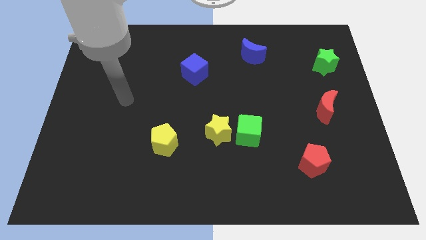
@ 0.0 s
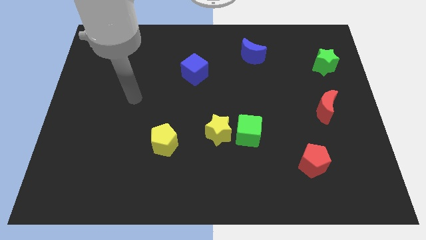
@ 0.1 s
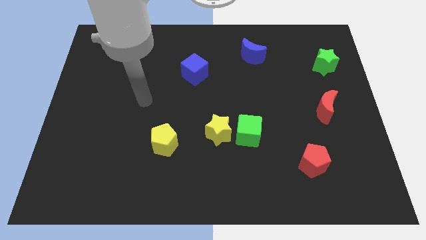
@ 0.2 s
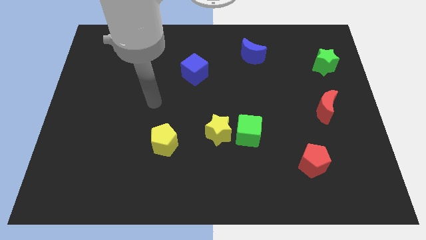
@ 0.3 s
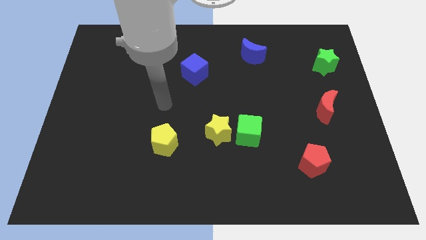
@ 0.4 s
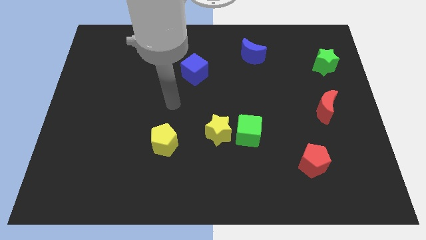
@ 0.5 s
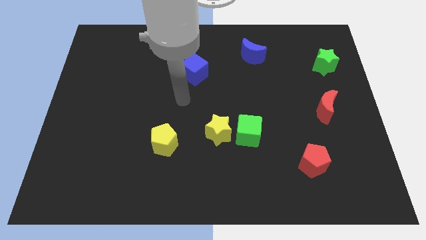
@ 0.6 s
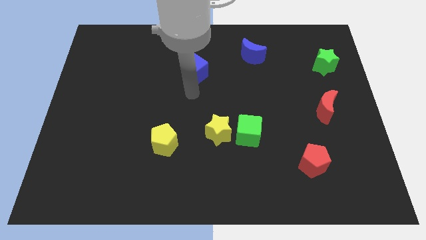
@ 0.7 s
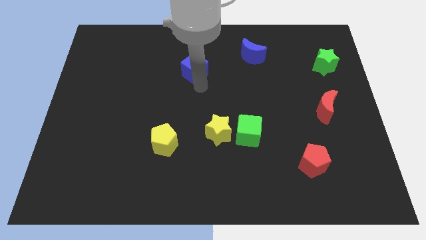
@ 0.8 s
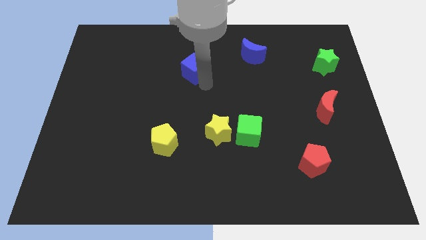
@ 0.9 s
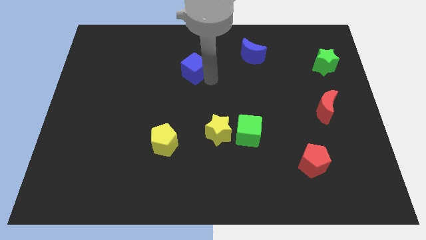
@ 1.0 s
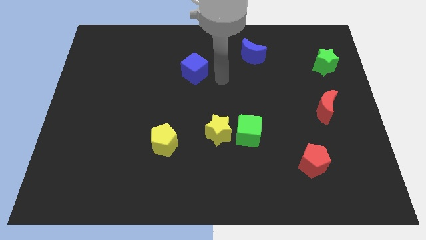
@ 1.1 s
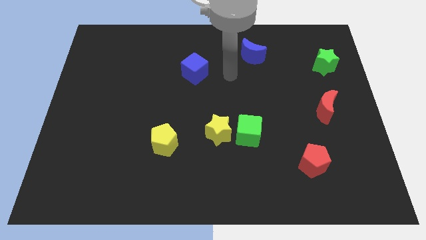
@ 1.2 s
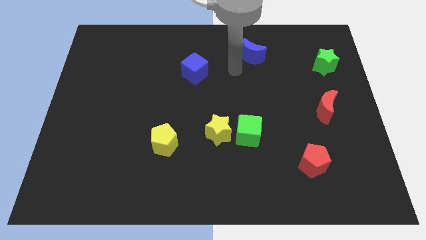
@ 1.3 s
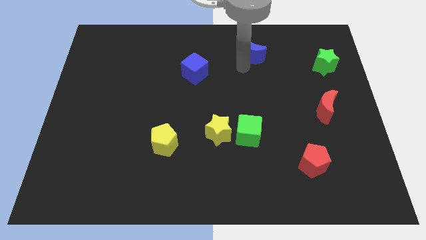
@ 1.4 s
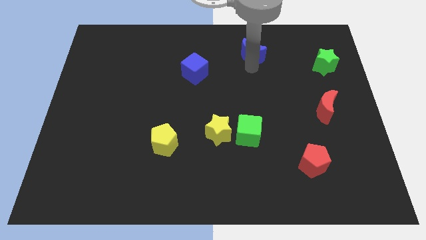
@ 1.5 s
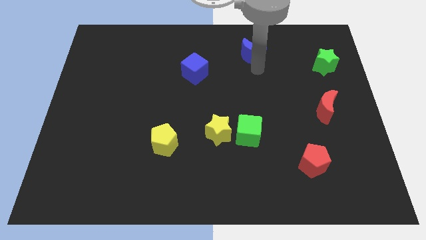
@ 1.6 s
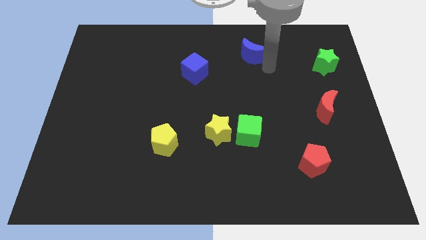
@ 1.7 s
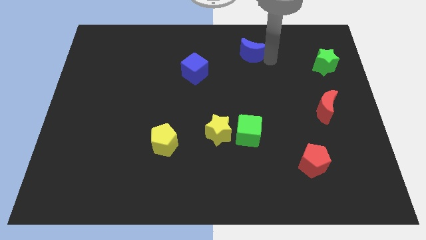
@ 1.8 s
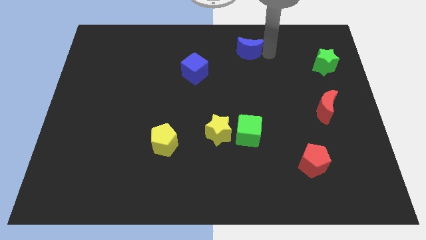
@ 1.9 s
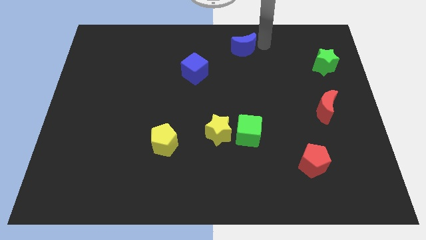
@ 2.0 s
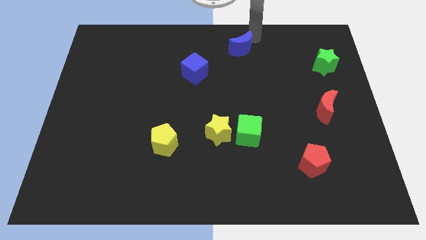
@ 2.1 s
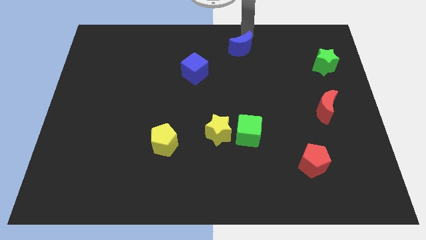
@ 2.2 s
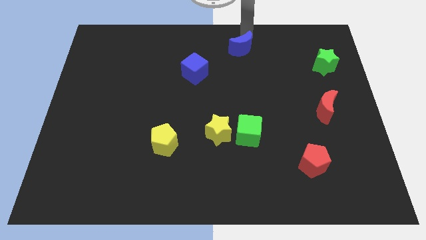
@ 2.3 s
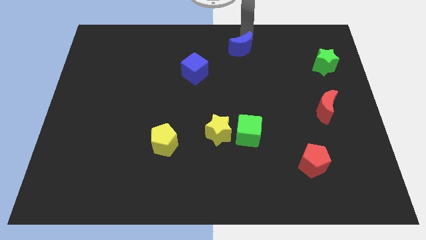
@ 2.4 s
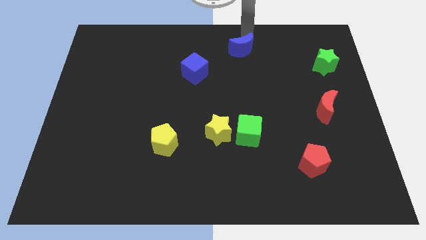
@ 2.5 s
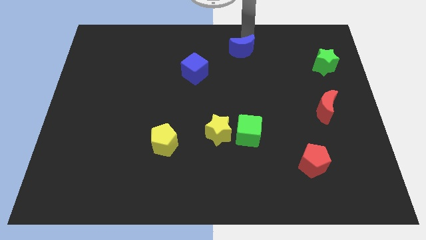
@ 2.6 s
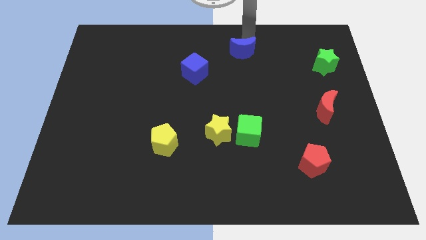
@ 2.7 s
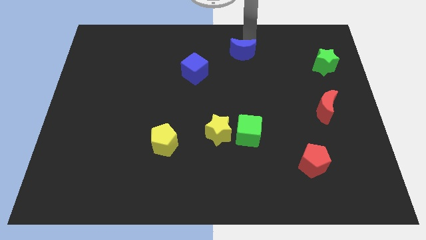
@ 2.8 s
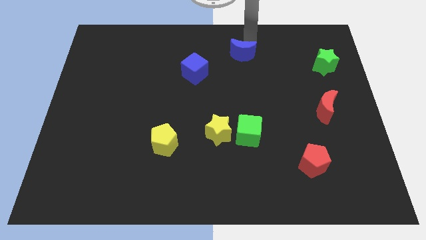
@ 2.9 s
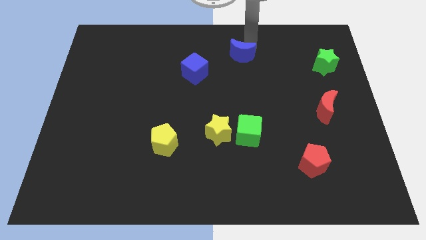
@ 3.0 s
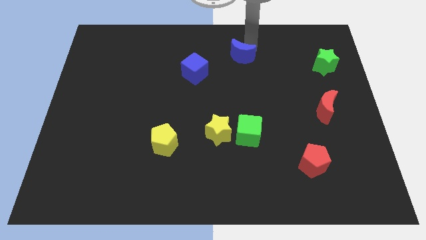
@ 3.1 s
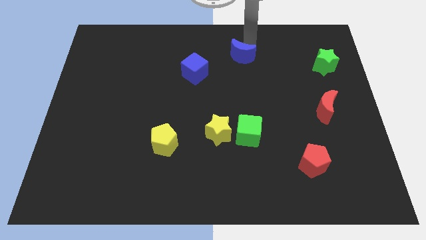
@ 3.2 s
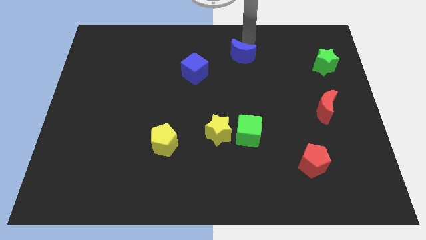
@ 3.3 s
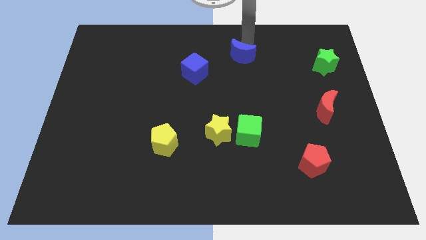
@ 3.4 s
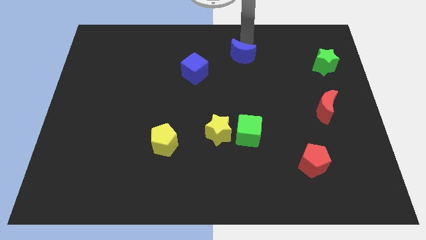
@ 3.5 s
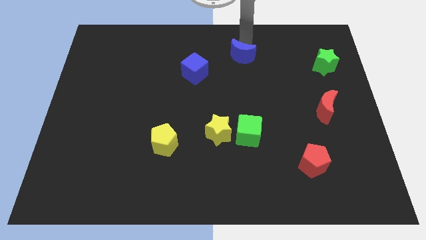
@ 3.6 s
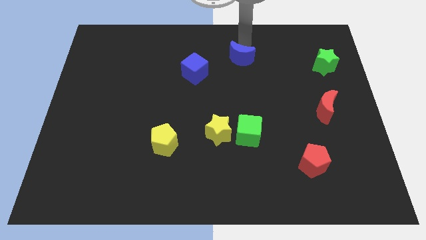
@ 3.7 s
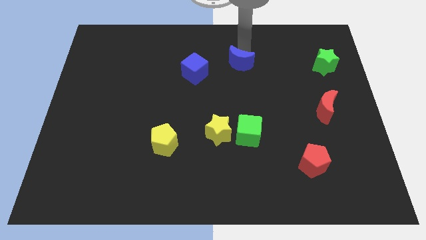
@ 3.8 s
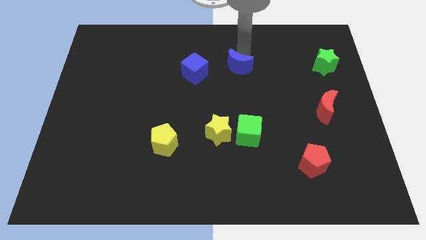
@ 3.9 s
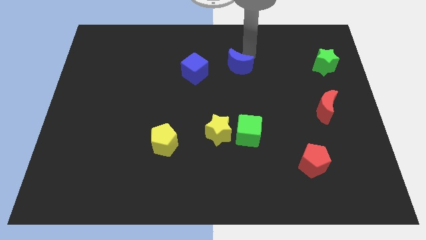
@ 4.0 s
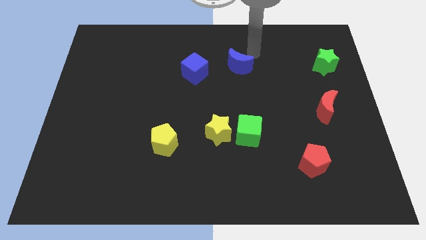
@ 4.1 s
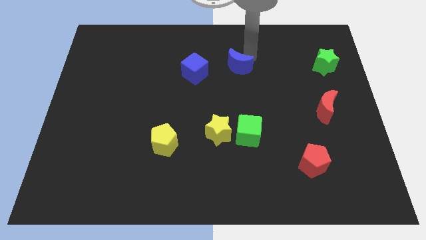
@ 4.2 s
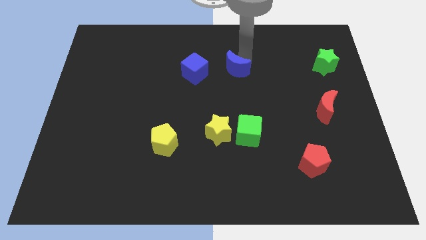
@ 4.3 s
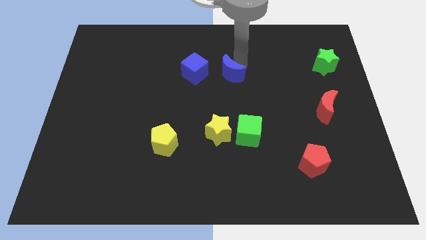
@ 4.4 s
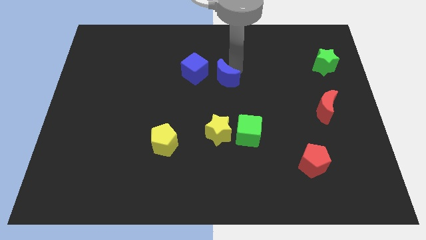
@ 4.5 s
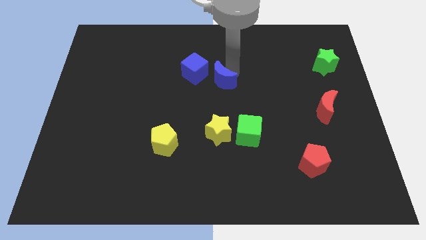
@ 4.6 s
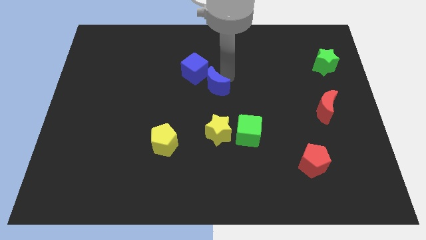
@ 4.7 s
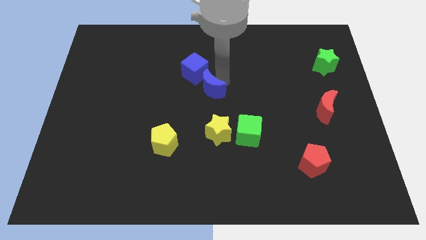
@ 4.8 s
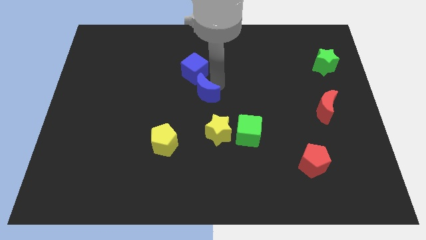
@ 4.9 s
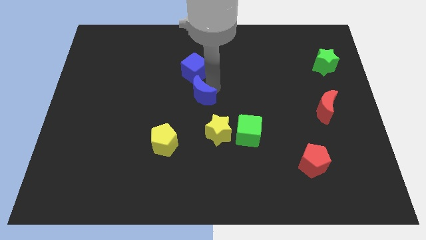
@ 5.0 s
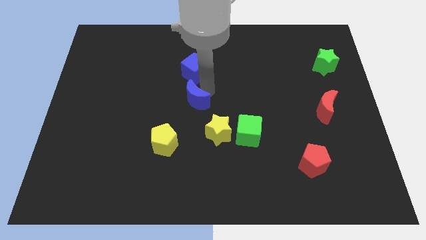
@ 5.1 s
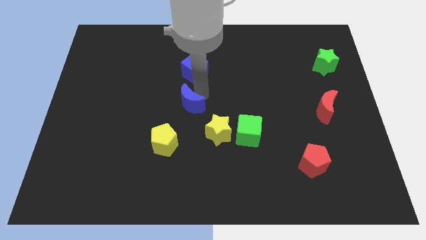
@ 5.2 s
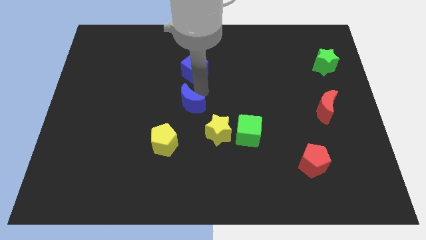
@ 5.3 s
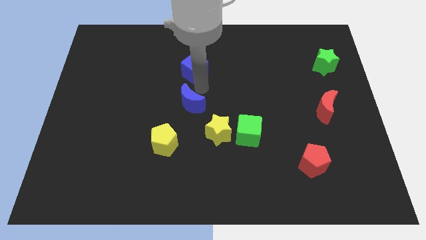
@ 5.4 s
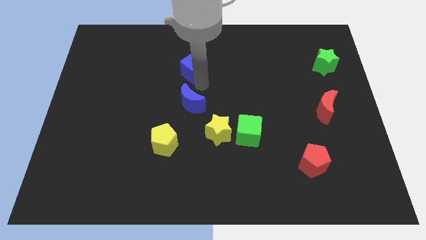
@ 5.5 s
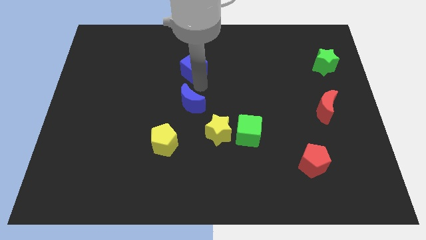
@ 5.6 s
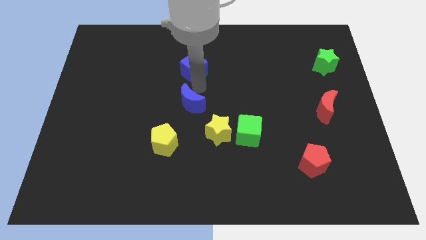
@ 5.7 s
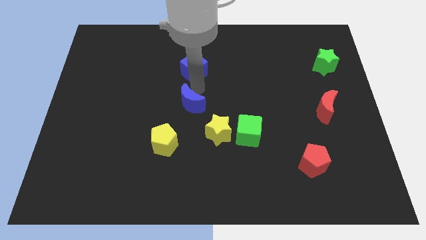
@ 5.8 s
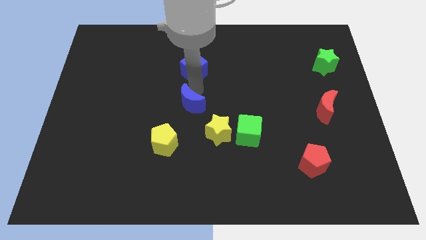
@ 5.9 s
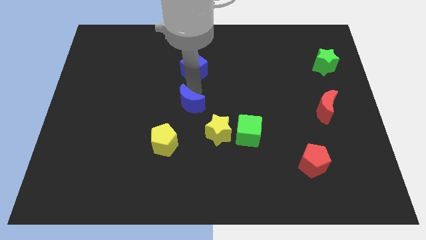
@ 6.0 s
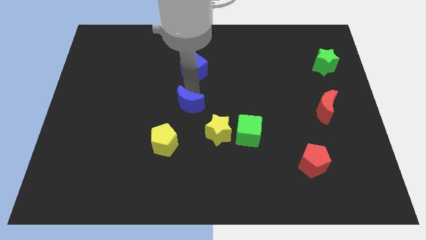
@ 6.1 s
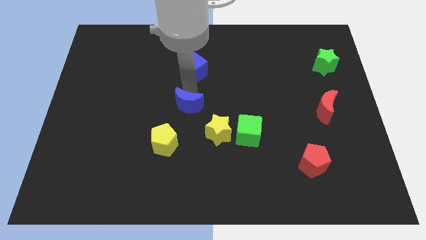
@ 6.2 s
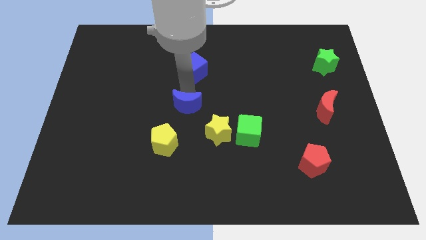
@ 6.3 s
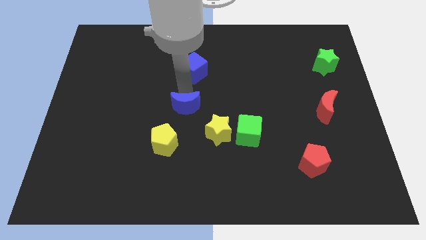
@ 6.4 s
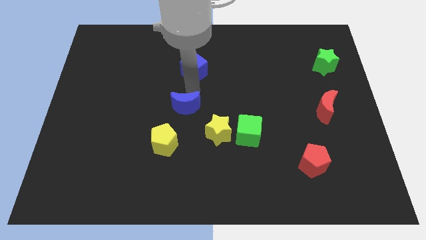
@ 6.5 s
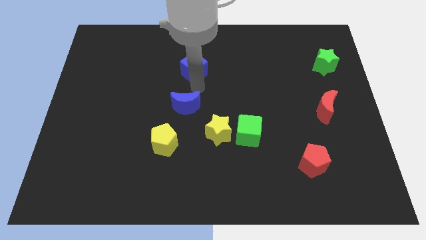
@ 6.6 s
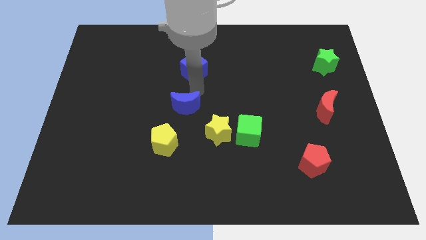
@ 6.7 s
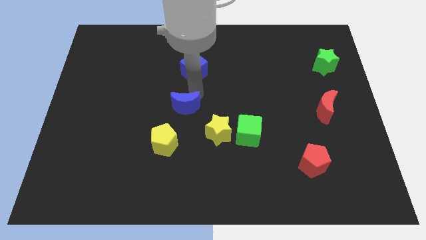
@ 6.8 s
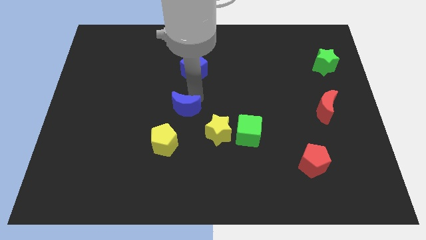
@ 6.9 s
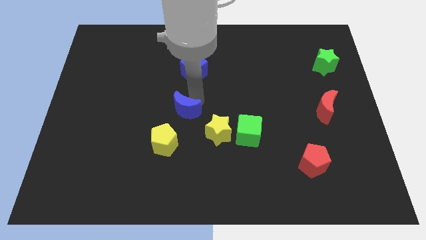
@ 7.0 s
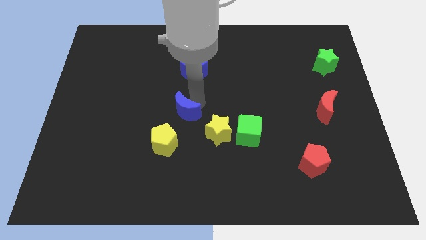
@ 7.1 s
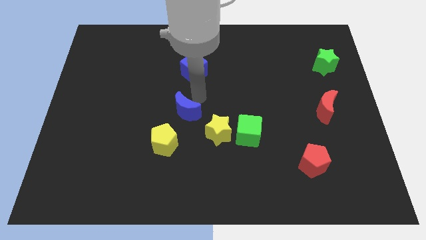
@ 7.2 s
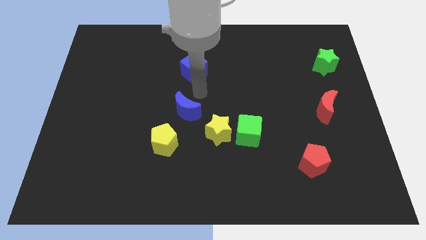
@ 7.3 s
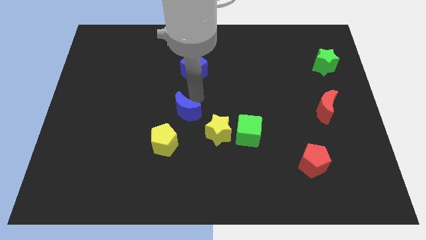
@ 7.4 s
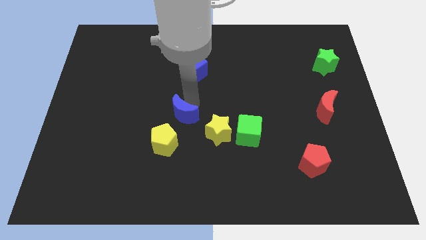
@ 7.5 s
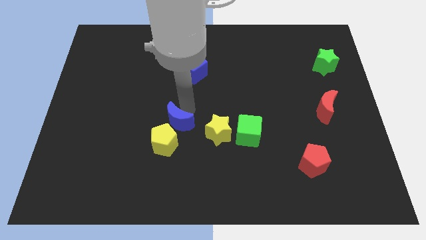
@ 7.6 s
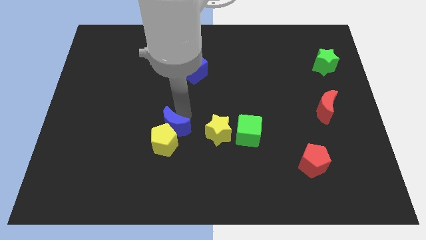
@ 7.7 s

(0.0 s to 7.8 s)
push the blue moon next to the yellow pentagon
